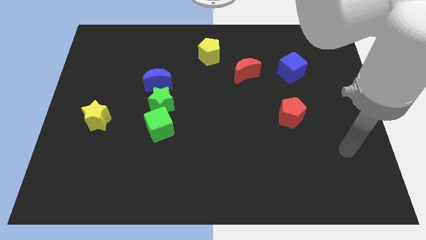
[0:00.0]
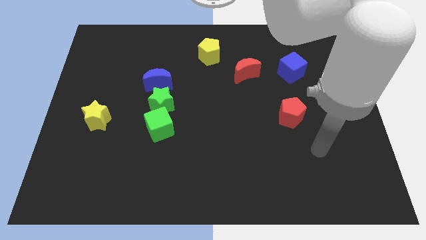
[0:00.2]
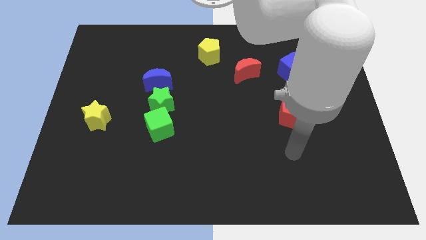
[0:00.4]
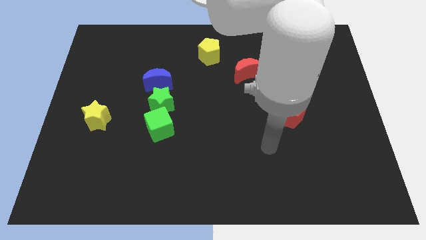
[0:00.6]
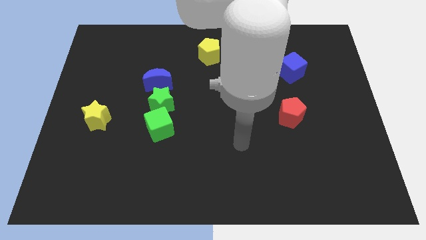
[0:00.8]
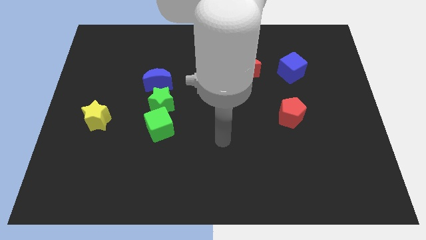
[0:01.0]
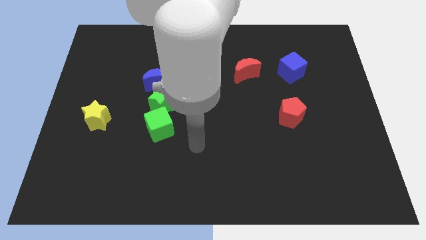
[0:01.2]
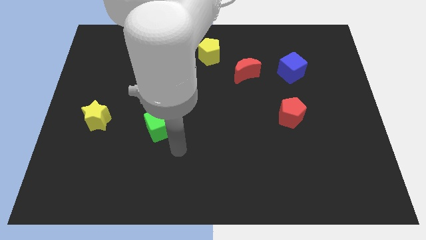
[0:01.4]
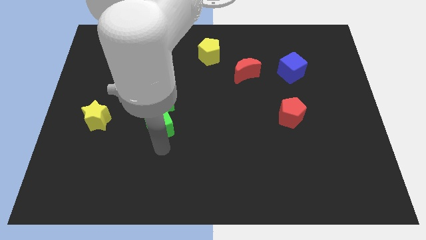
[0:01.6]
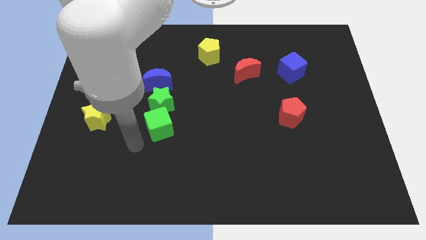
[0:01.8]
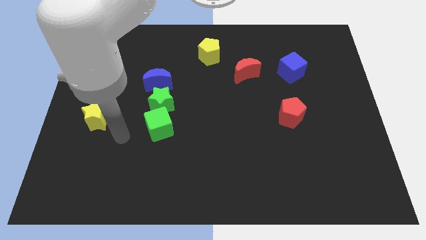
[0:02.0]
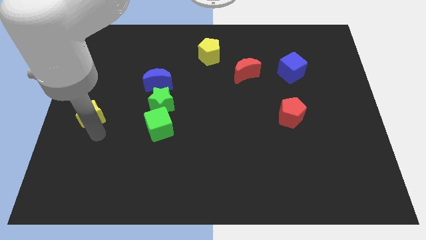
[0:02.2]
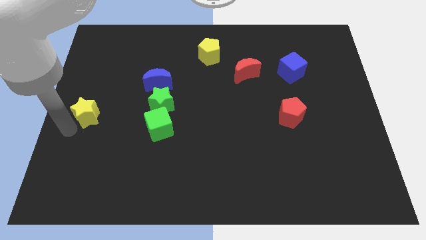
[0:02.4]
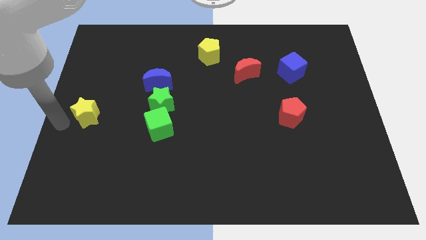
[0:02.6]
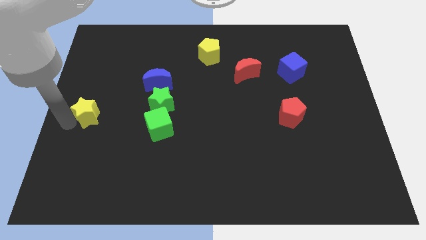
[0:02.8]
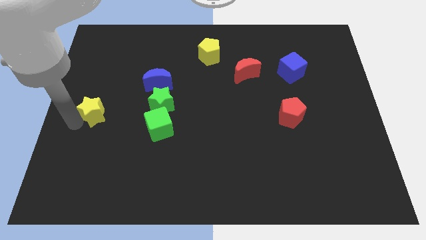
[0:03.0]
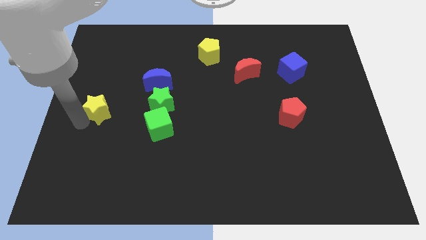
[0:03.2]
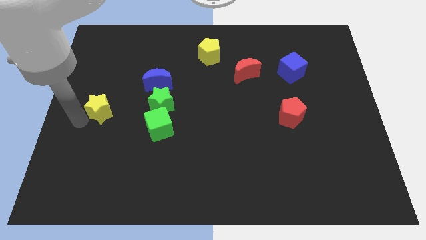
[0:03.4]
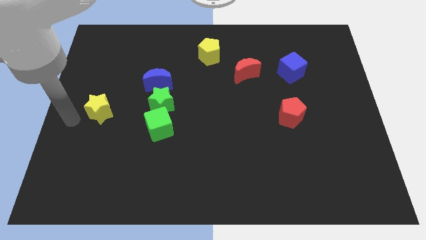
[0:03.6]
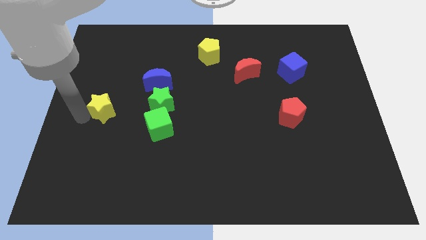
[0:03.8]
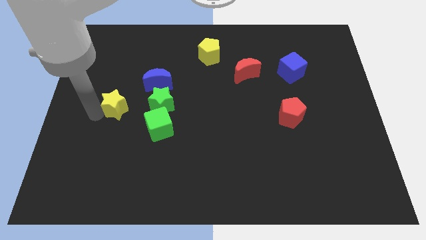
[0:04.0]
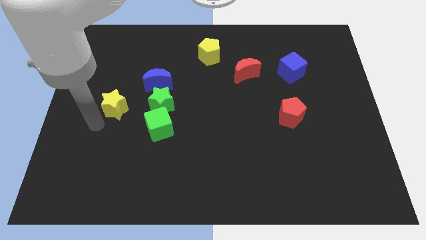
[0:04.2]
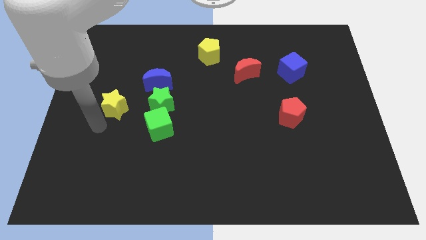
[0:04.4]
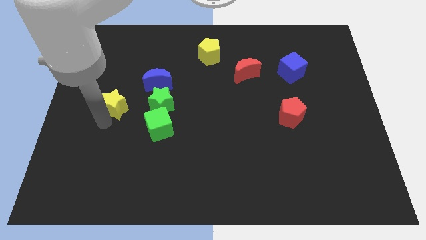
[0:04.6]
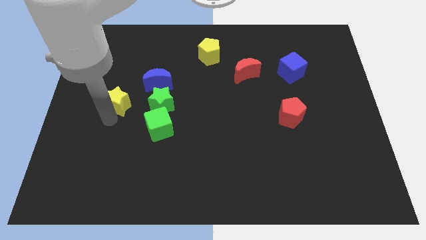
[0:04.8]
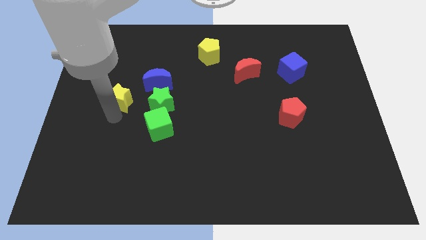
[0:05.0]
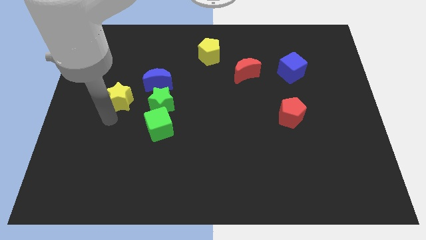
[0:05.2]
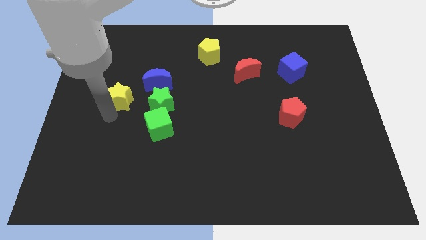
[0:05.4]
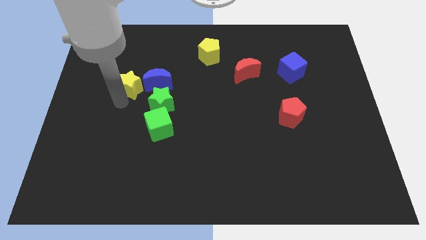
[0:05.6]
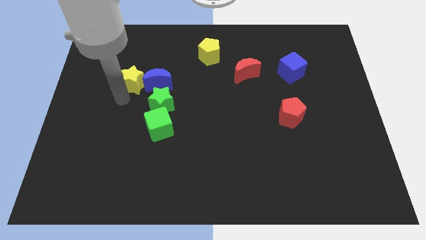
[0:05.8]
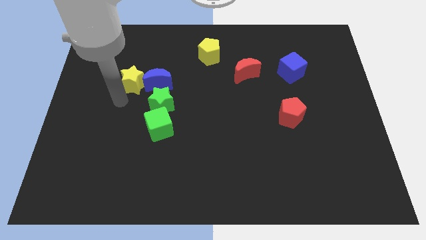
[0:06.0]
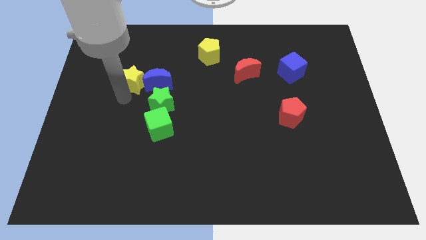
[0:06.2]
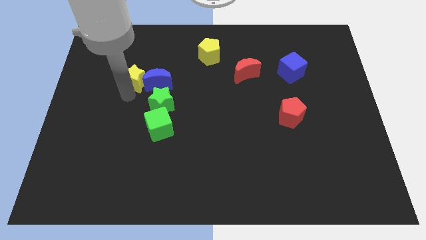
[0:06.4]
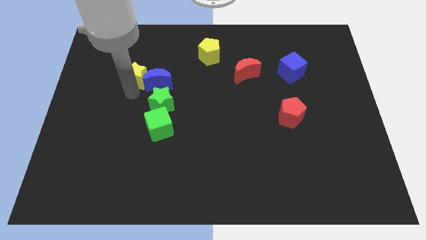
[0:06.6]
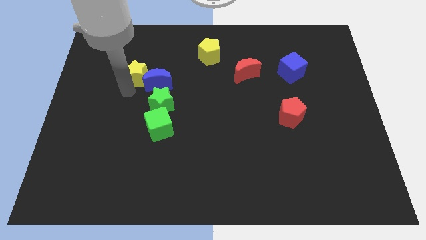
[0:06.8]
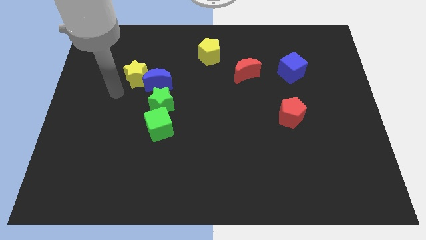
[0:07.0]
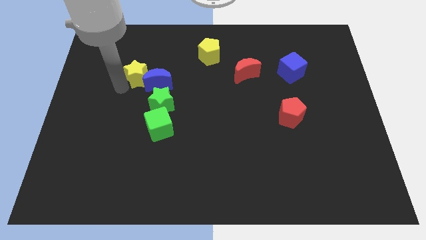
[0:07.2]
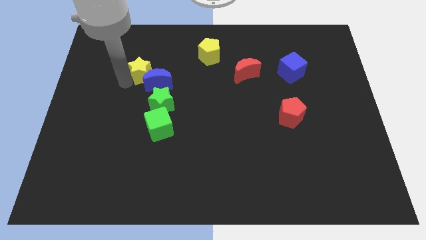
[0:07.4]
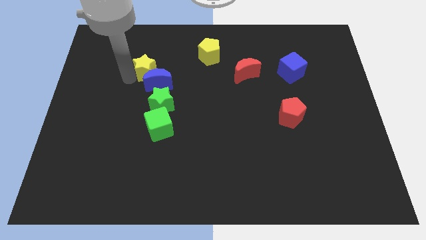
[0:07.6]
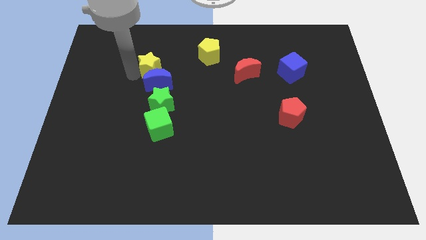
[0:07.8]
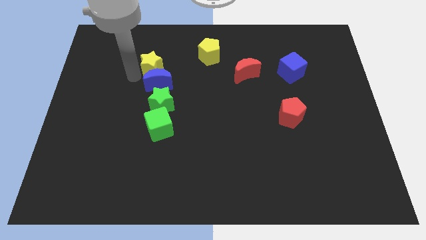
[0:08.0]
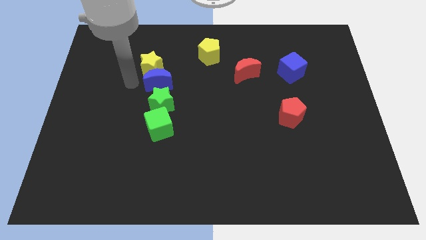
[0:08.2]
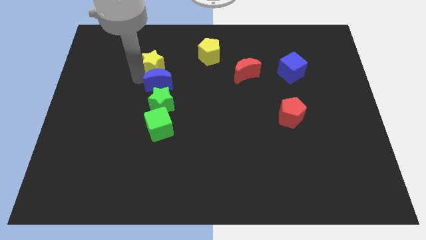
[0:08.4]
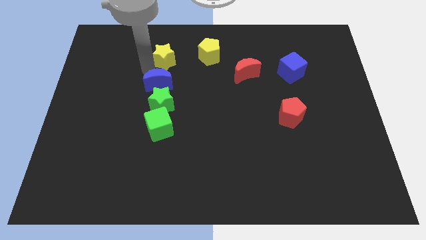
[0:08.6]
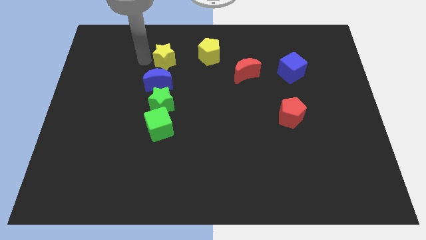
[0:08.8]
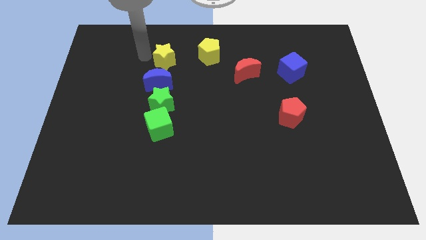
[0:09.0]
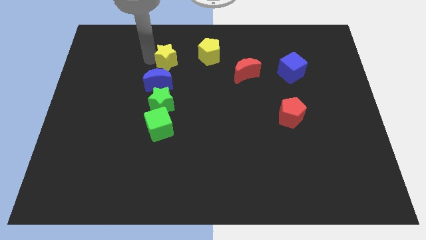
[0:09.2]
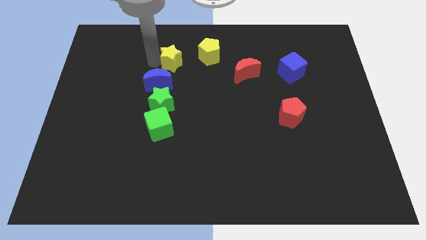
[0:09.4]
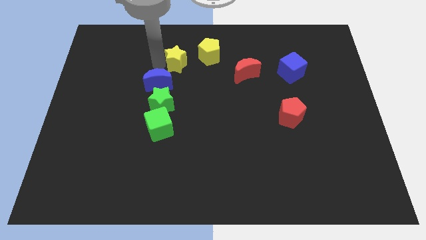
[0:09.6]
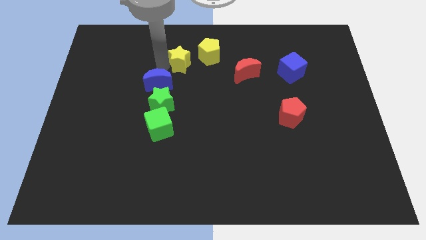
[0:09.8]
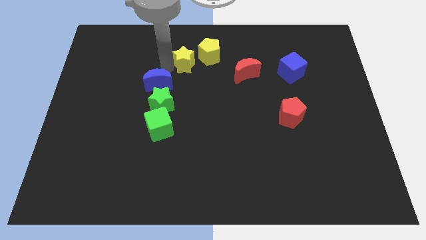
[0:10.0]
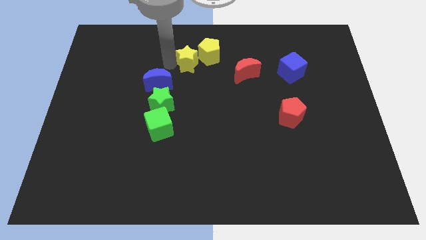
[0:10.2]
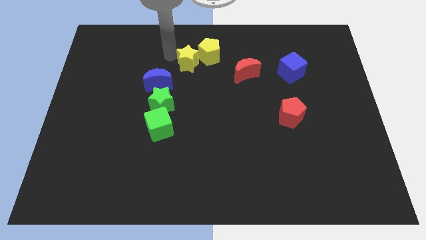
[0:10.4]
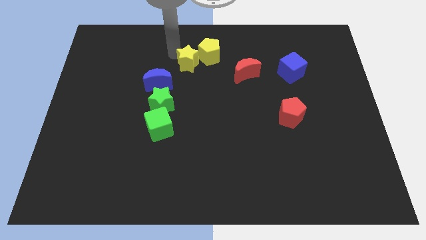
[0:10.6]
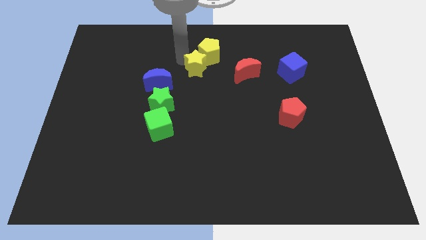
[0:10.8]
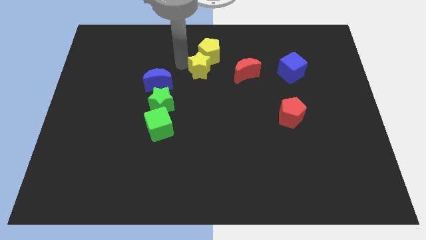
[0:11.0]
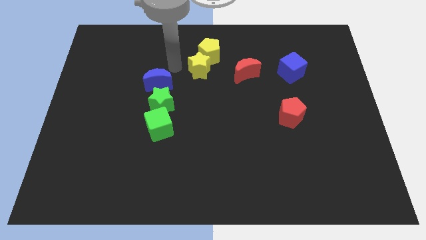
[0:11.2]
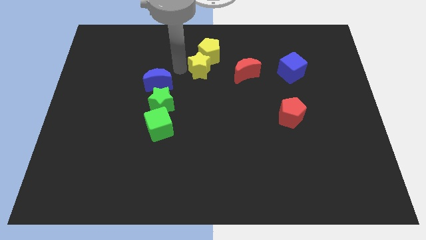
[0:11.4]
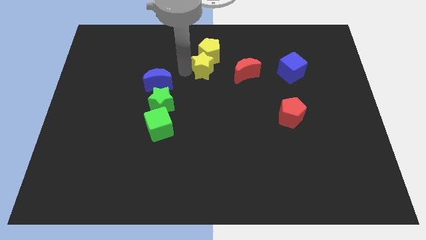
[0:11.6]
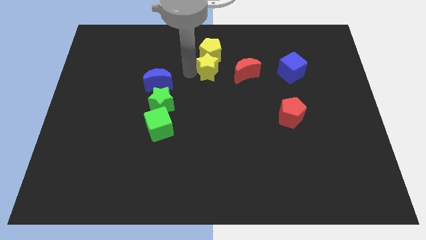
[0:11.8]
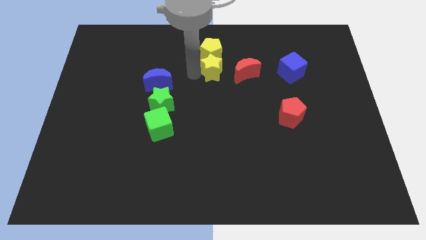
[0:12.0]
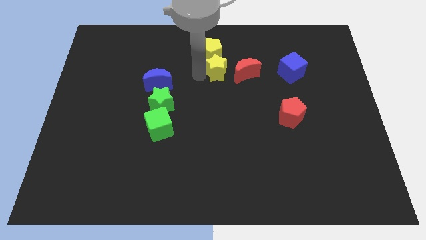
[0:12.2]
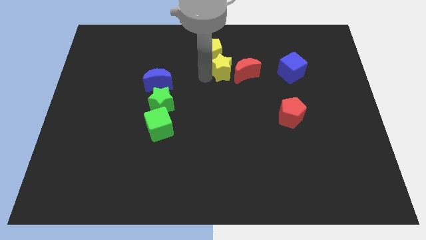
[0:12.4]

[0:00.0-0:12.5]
push the yellow star next to the red moon
